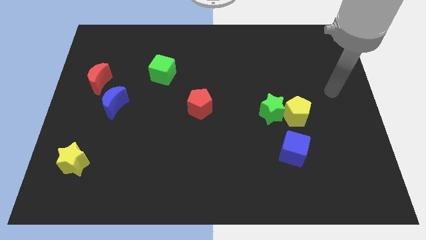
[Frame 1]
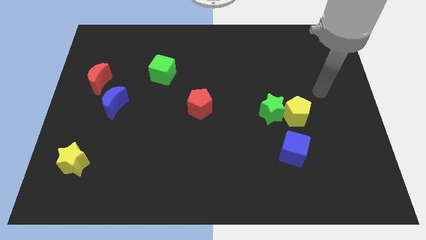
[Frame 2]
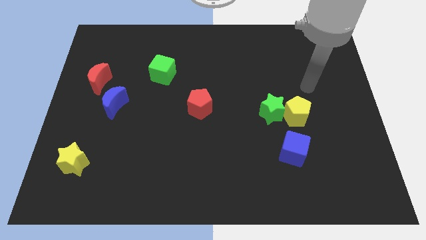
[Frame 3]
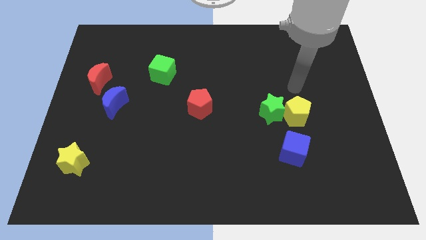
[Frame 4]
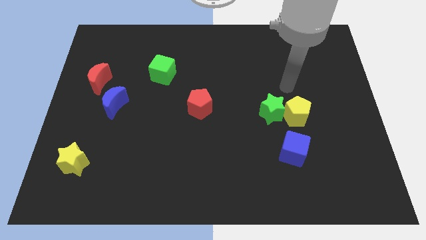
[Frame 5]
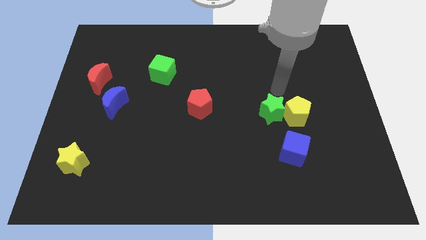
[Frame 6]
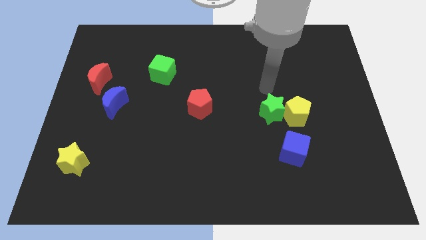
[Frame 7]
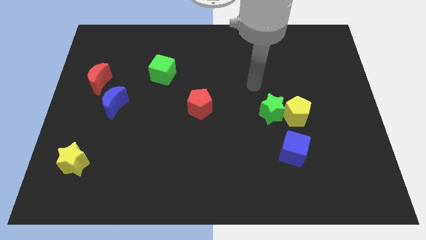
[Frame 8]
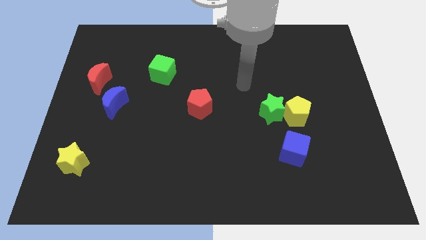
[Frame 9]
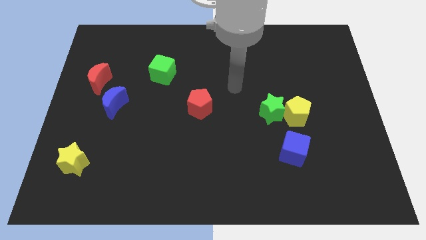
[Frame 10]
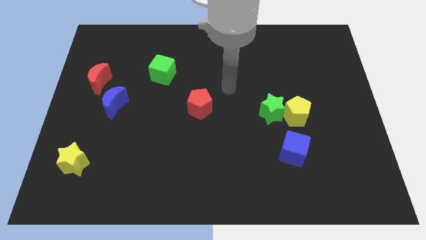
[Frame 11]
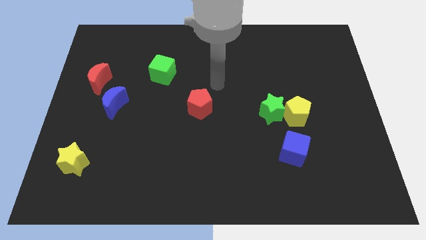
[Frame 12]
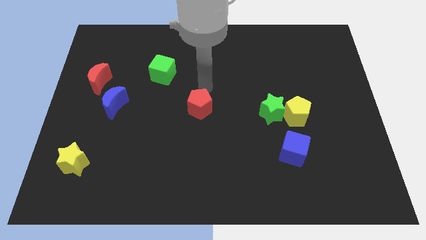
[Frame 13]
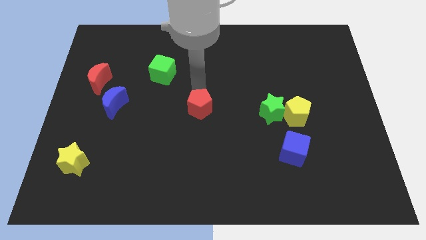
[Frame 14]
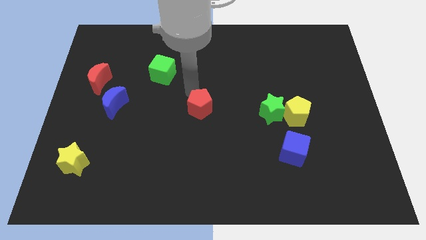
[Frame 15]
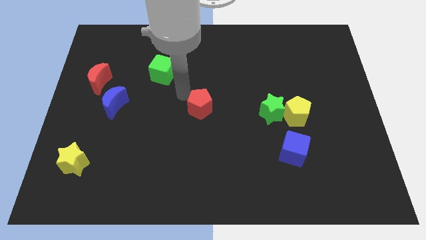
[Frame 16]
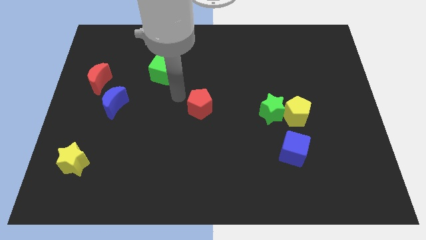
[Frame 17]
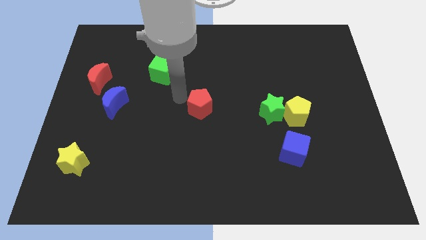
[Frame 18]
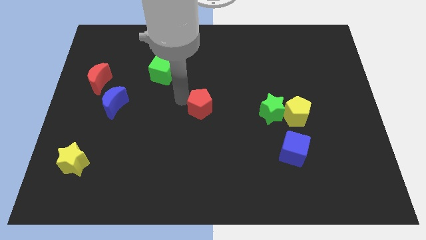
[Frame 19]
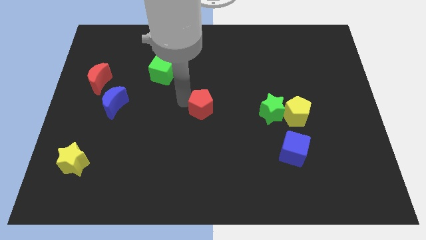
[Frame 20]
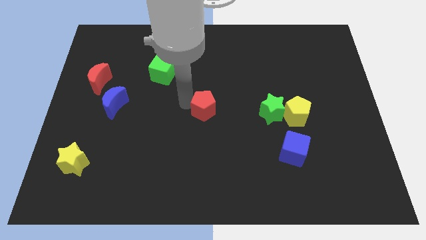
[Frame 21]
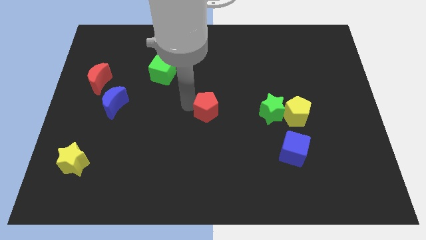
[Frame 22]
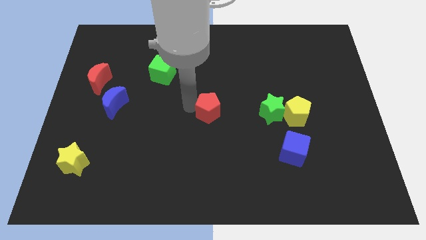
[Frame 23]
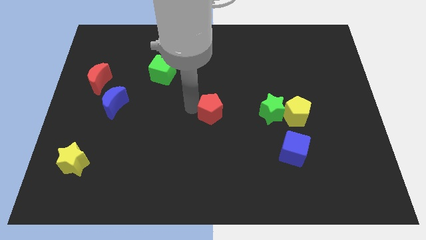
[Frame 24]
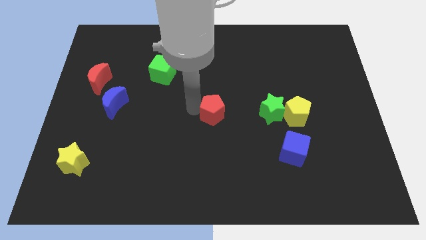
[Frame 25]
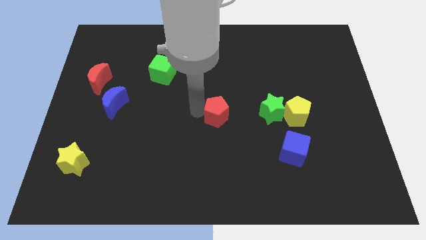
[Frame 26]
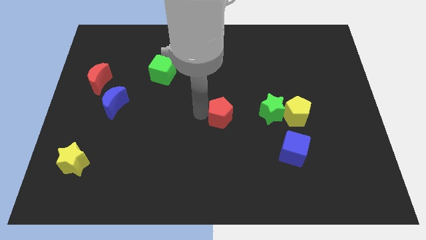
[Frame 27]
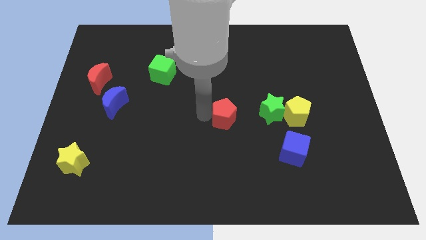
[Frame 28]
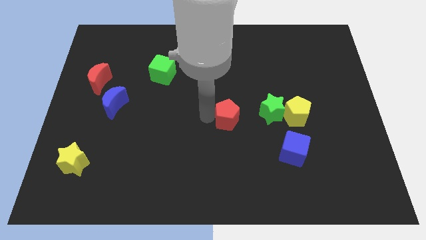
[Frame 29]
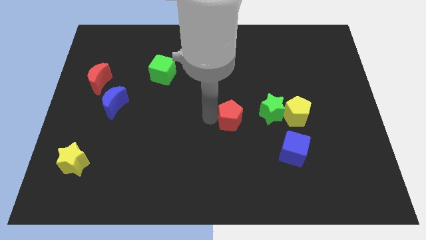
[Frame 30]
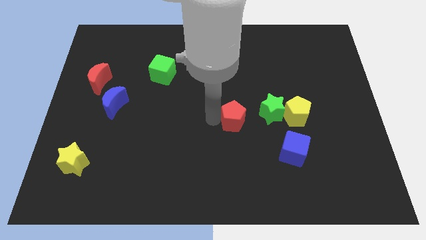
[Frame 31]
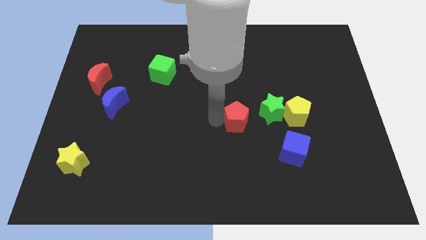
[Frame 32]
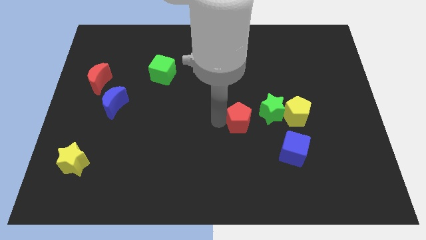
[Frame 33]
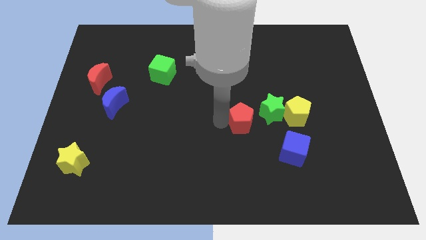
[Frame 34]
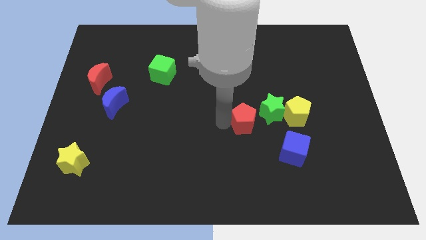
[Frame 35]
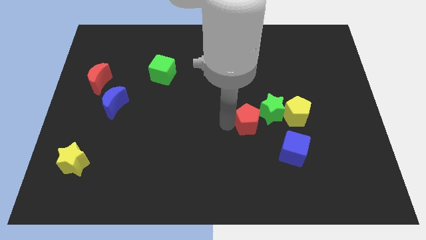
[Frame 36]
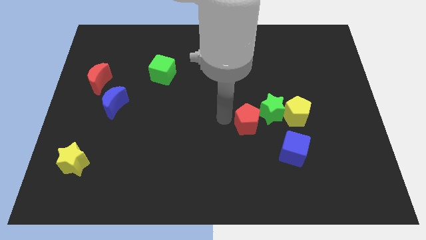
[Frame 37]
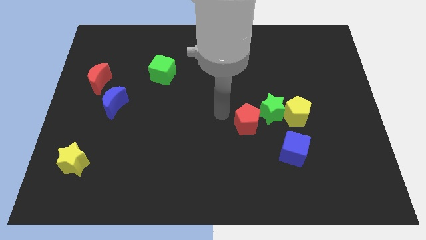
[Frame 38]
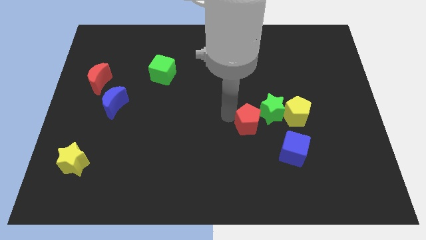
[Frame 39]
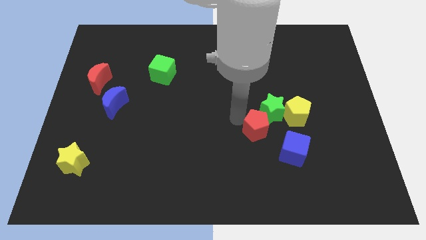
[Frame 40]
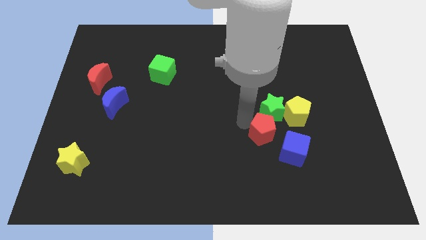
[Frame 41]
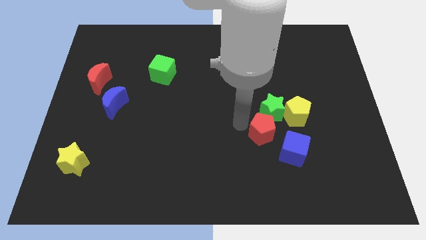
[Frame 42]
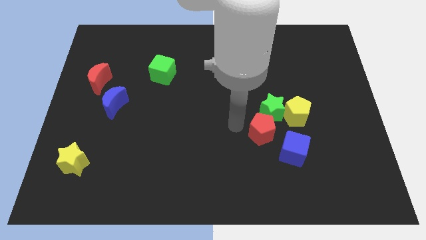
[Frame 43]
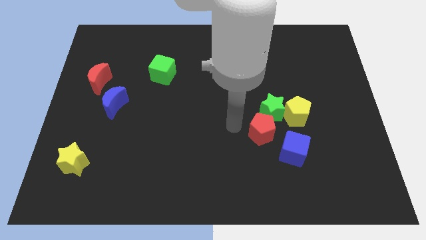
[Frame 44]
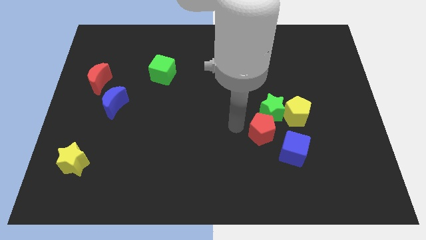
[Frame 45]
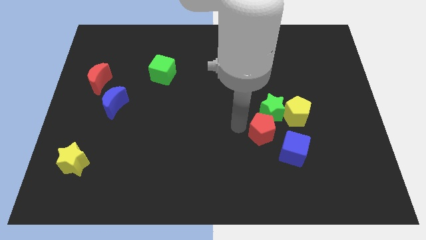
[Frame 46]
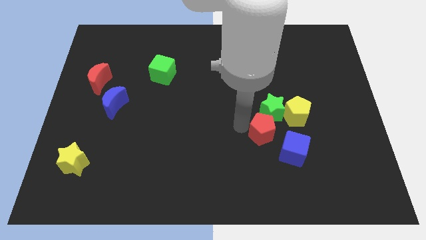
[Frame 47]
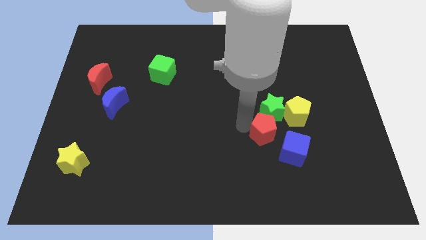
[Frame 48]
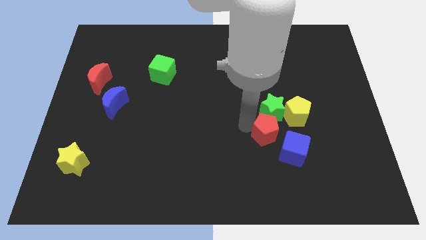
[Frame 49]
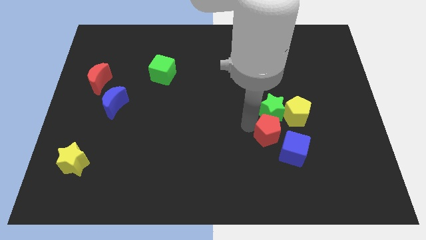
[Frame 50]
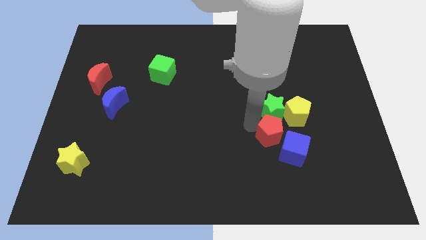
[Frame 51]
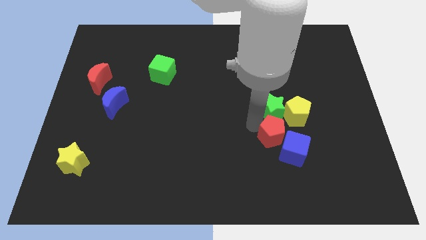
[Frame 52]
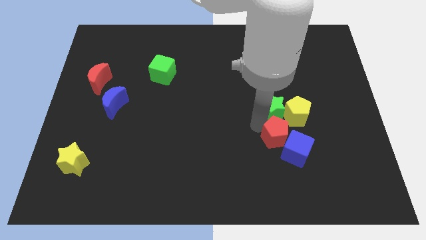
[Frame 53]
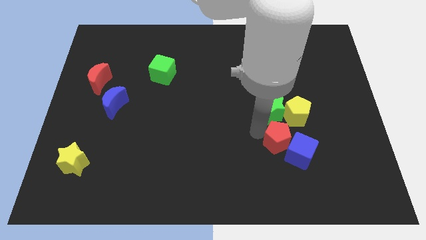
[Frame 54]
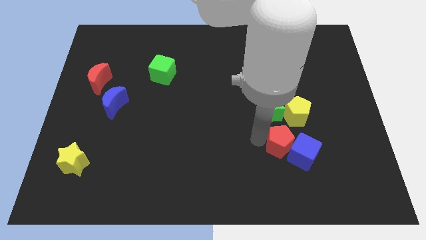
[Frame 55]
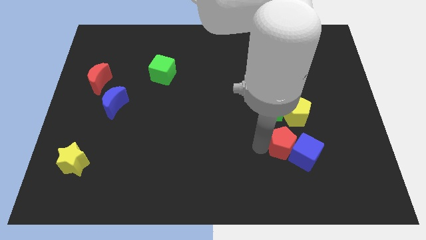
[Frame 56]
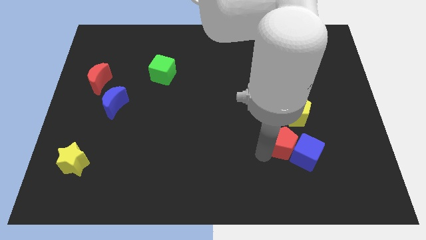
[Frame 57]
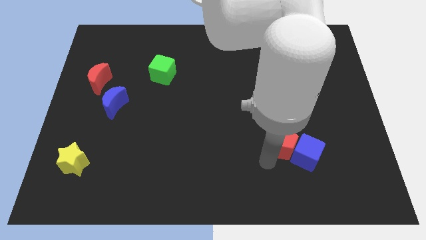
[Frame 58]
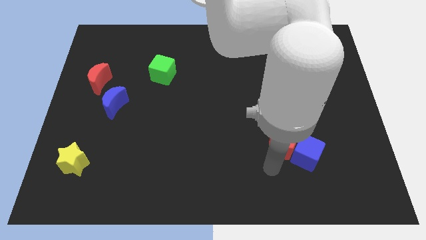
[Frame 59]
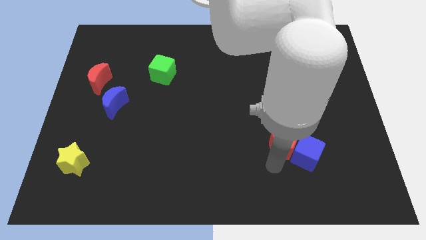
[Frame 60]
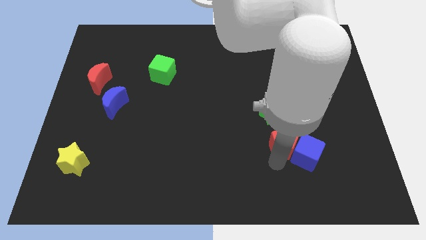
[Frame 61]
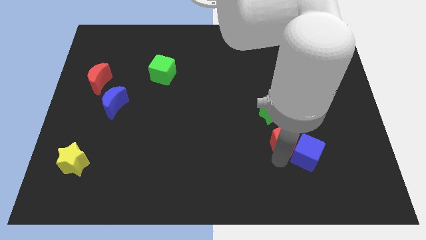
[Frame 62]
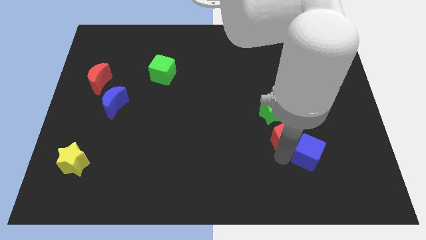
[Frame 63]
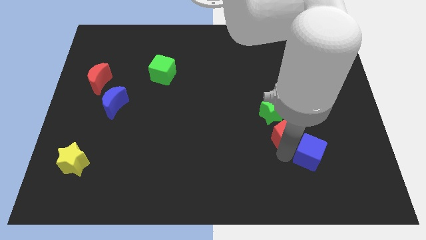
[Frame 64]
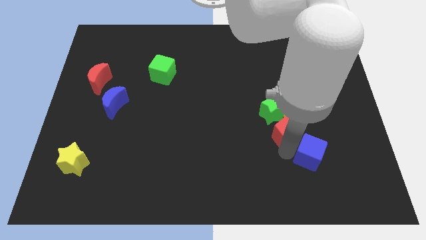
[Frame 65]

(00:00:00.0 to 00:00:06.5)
push the red pentagon towards the yellow pentagon

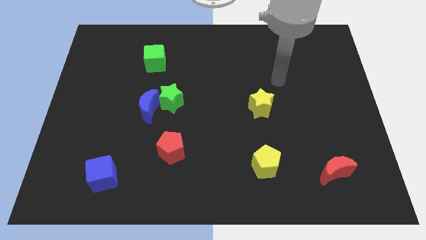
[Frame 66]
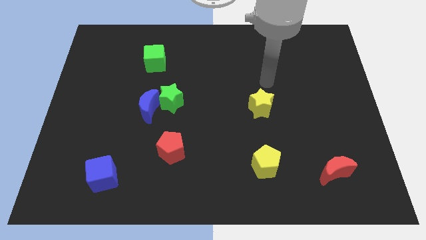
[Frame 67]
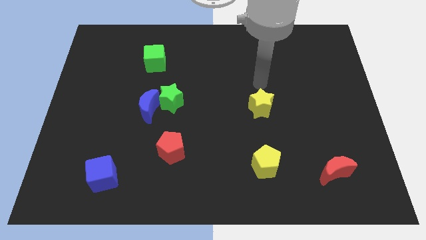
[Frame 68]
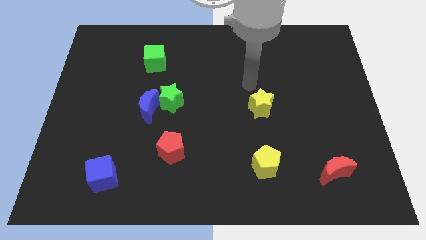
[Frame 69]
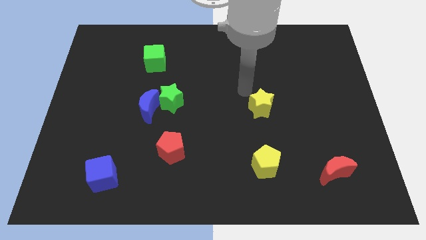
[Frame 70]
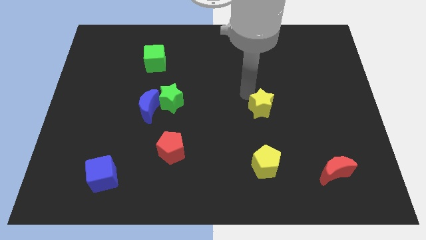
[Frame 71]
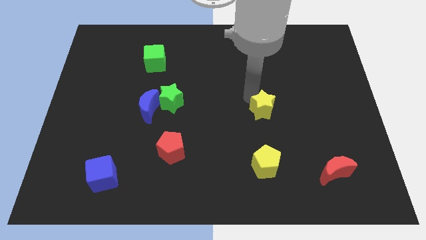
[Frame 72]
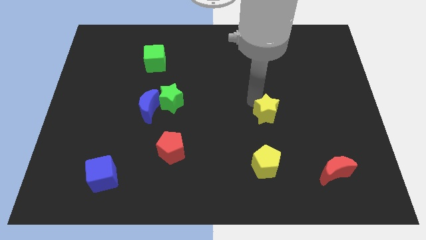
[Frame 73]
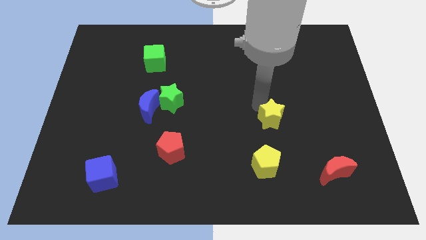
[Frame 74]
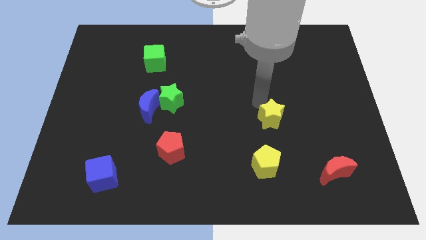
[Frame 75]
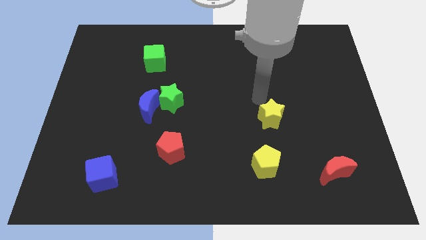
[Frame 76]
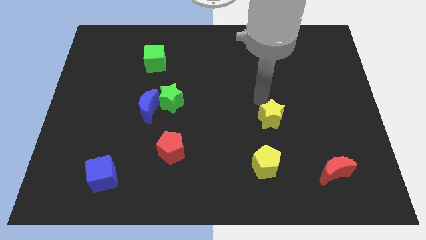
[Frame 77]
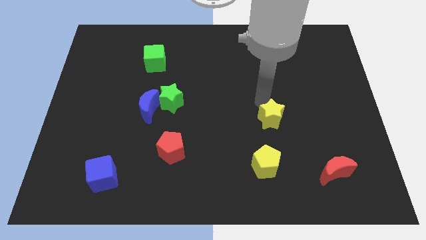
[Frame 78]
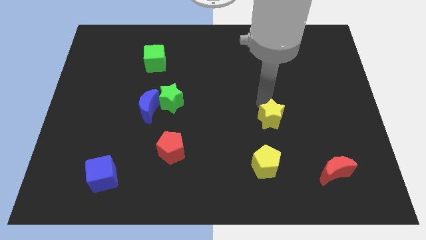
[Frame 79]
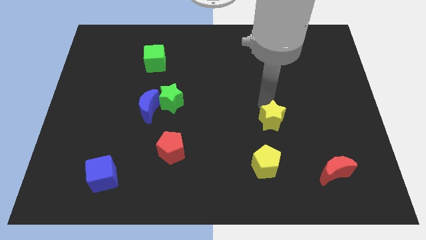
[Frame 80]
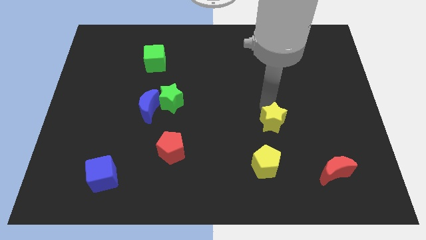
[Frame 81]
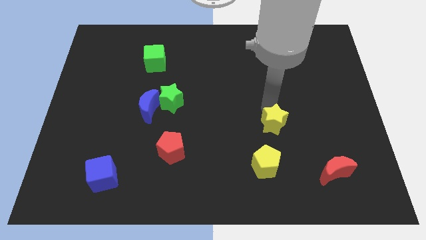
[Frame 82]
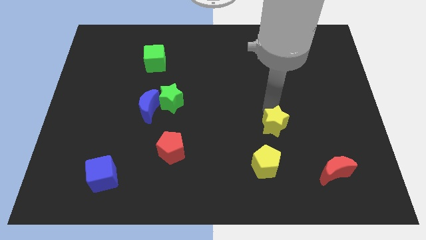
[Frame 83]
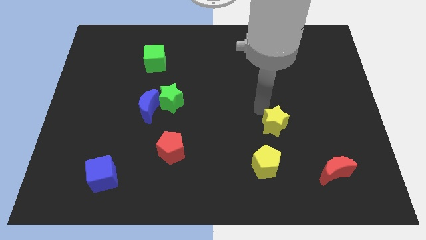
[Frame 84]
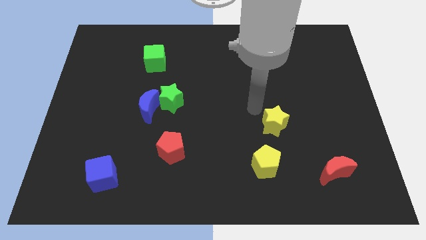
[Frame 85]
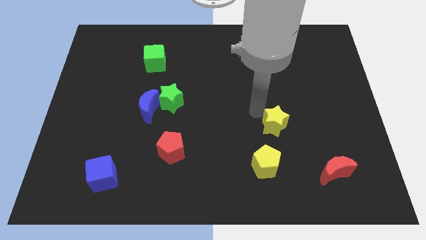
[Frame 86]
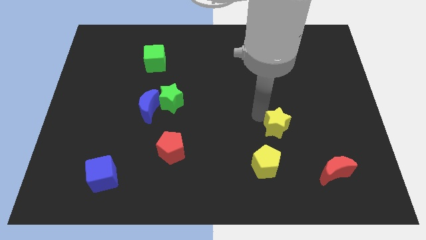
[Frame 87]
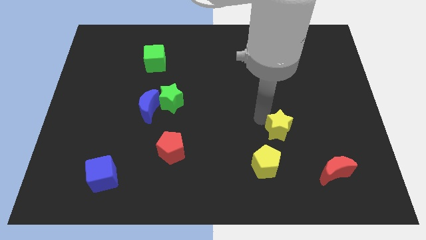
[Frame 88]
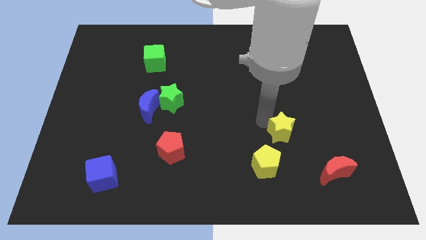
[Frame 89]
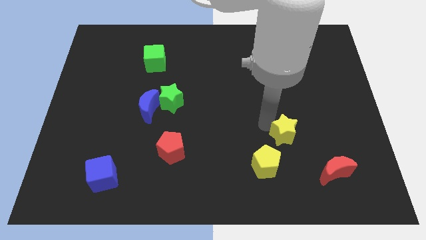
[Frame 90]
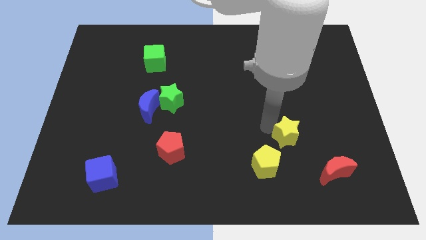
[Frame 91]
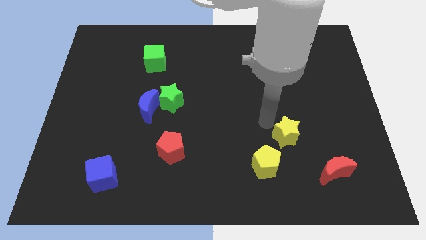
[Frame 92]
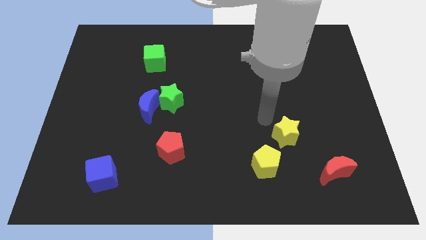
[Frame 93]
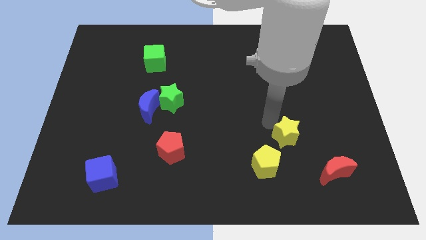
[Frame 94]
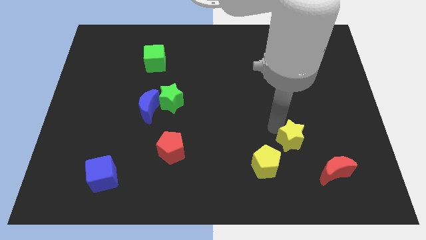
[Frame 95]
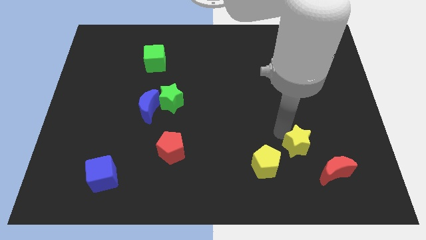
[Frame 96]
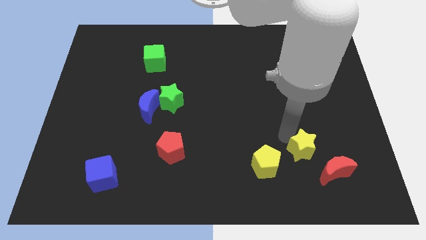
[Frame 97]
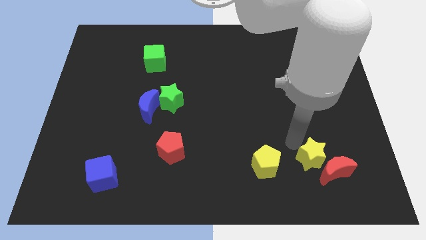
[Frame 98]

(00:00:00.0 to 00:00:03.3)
push the yellow star to the red moon
